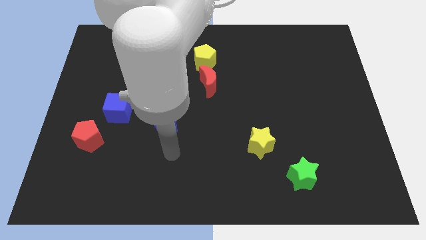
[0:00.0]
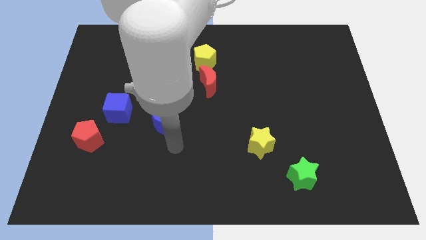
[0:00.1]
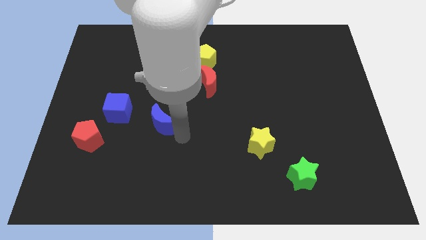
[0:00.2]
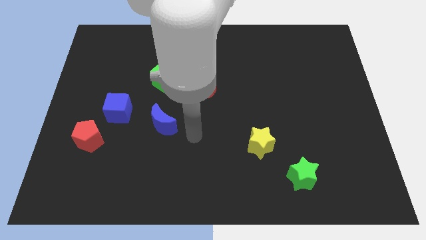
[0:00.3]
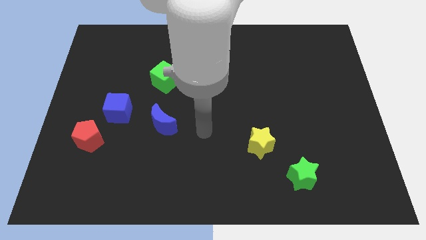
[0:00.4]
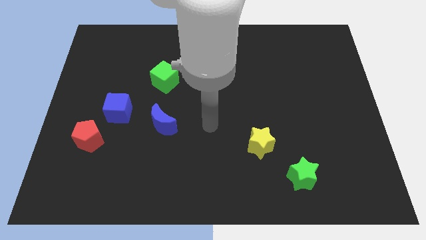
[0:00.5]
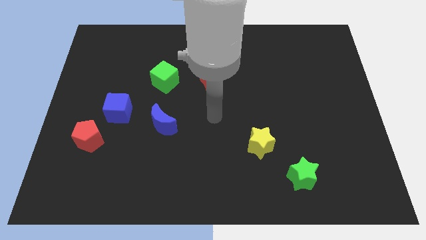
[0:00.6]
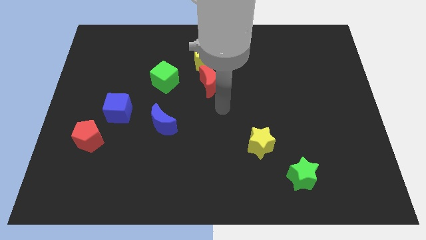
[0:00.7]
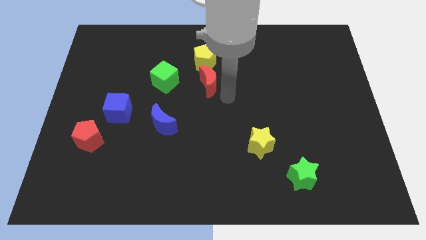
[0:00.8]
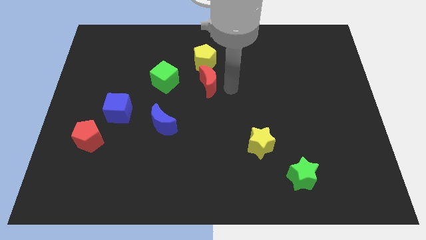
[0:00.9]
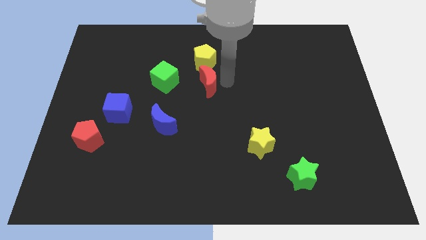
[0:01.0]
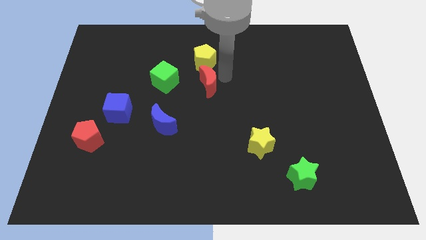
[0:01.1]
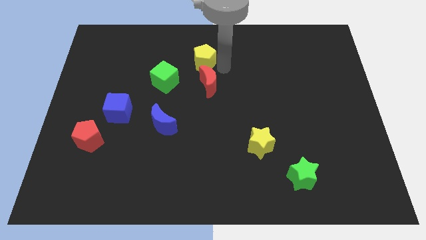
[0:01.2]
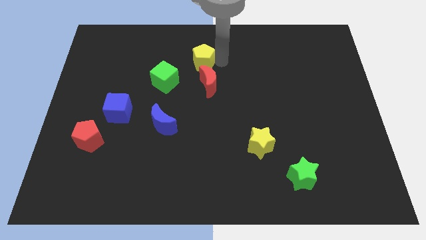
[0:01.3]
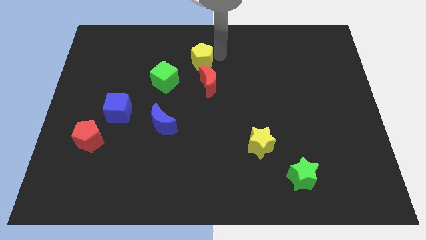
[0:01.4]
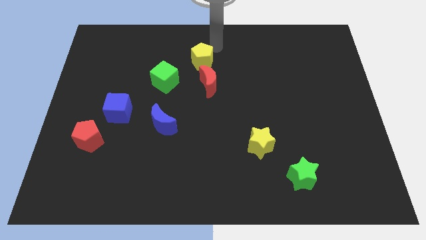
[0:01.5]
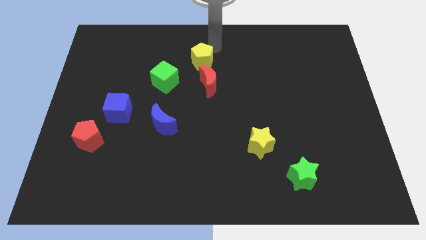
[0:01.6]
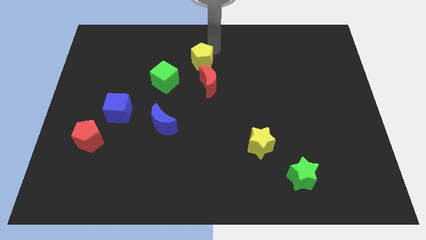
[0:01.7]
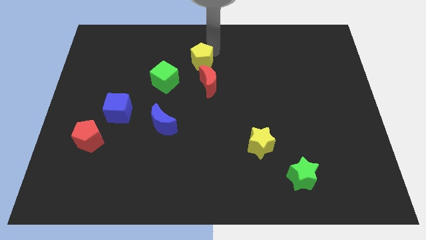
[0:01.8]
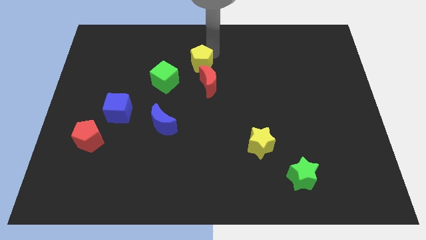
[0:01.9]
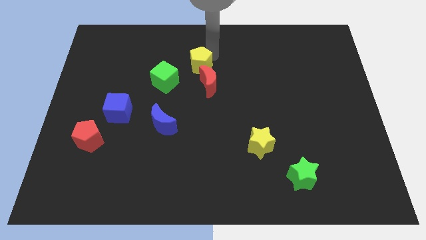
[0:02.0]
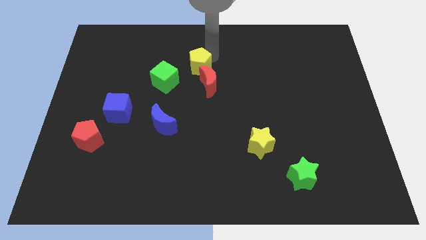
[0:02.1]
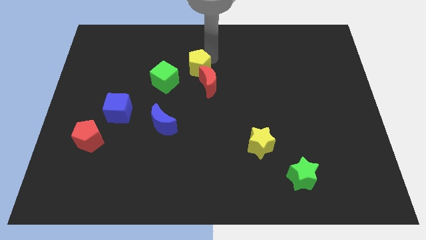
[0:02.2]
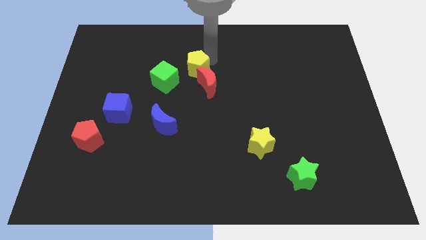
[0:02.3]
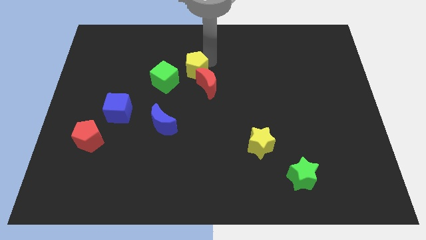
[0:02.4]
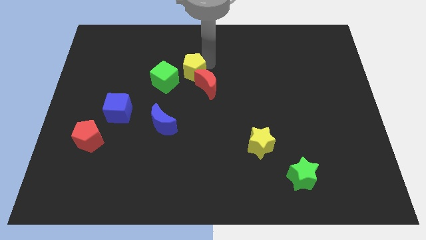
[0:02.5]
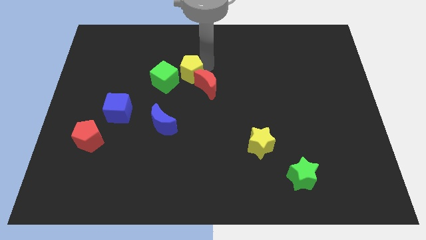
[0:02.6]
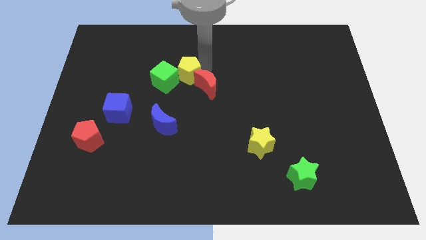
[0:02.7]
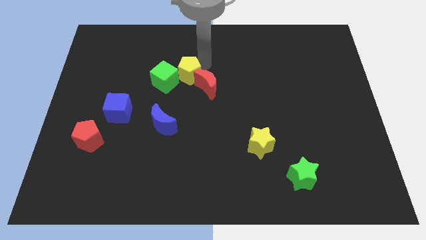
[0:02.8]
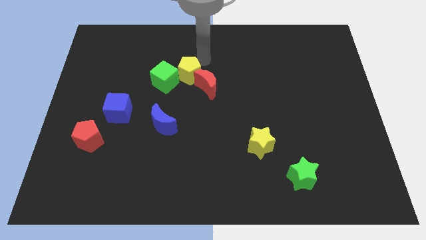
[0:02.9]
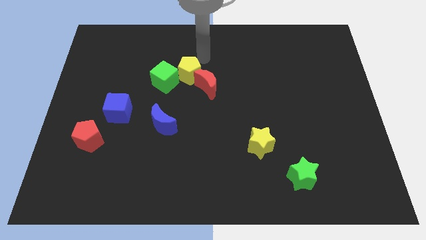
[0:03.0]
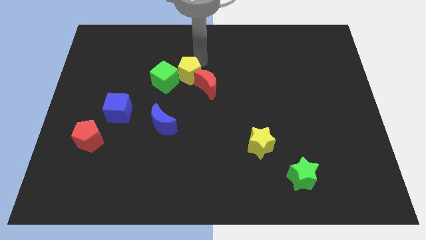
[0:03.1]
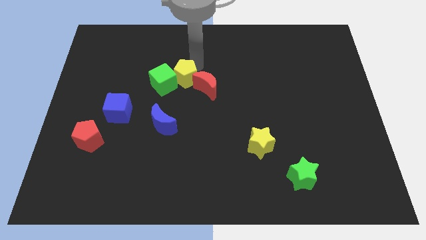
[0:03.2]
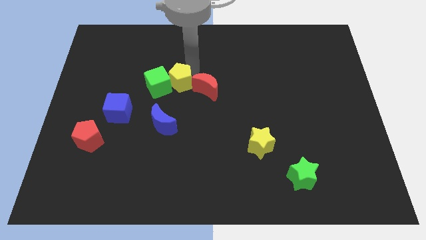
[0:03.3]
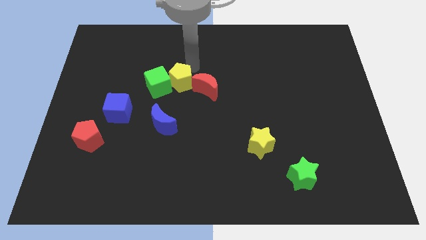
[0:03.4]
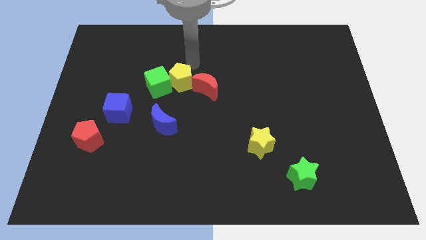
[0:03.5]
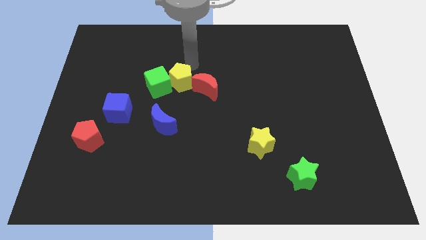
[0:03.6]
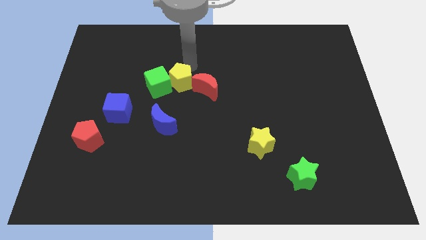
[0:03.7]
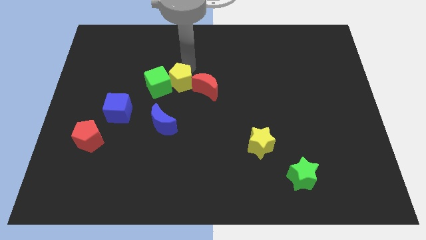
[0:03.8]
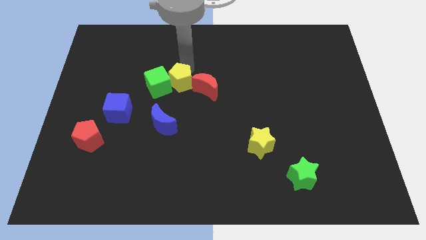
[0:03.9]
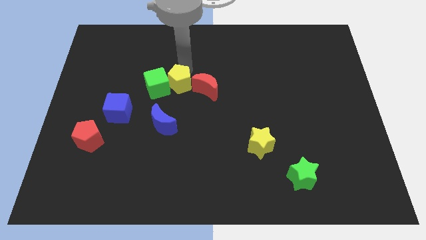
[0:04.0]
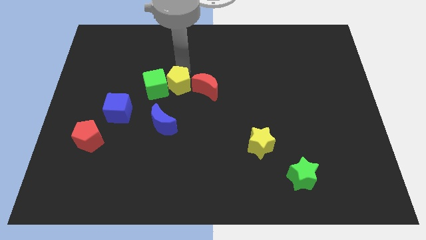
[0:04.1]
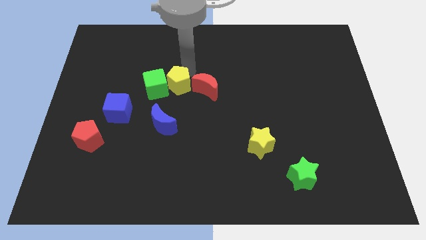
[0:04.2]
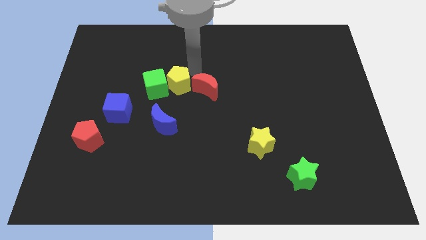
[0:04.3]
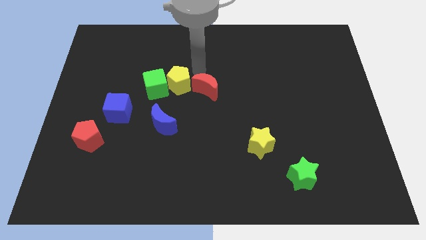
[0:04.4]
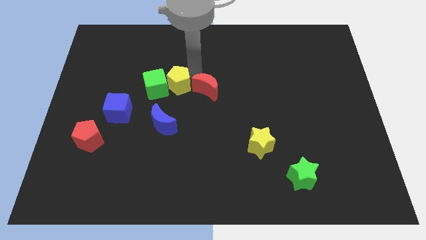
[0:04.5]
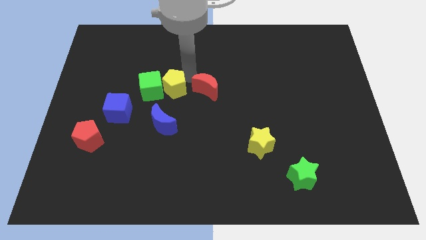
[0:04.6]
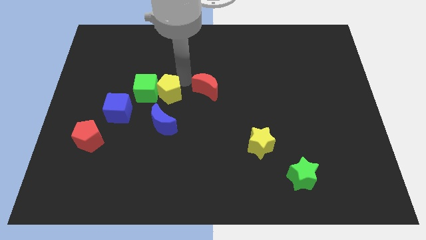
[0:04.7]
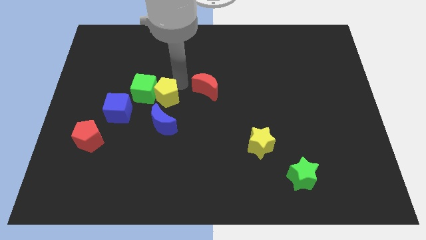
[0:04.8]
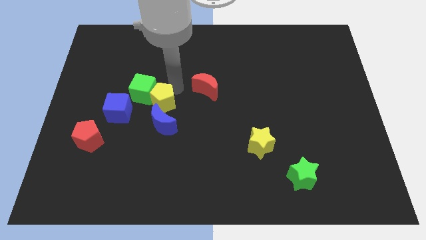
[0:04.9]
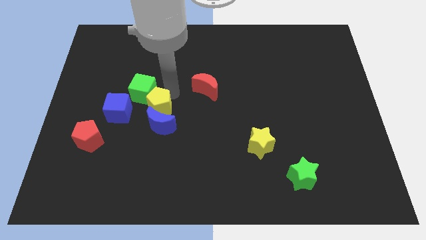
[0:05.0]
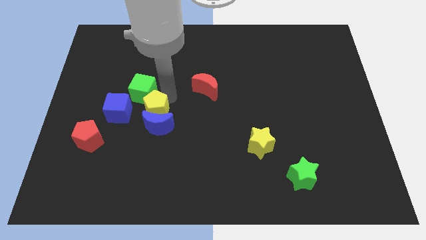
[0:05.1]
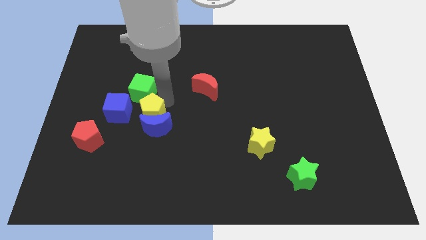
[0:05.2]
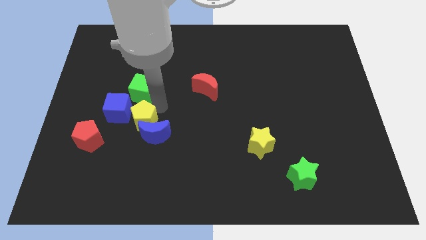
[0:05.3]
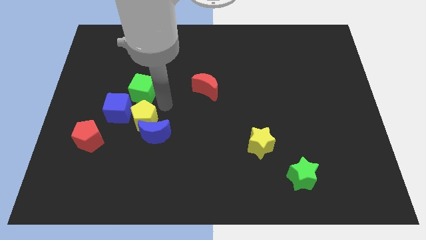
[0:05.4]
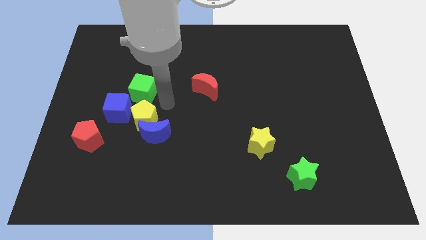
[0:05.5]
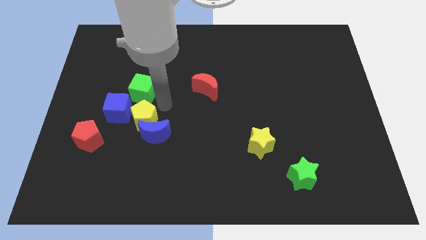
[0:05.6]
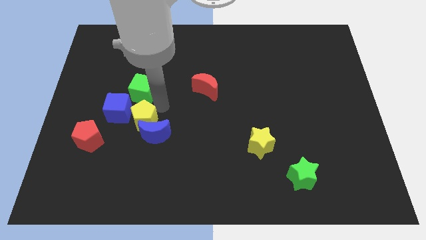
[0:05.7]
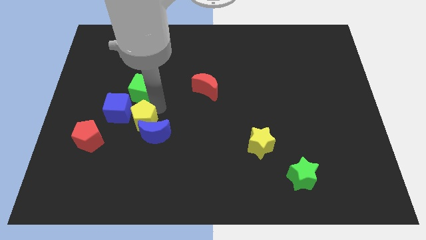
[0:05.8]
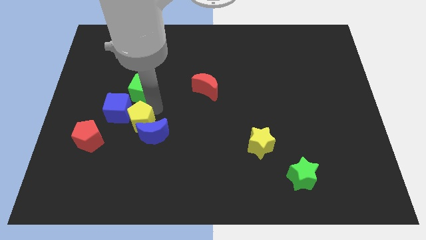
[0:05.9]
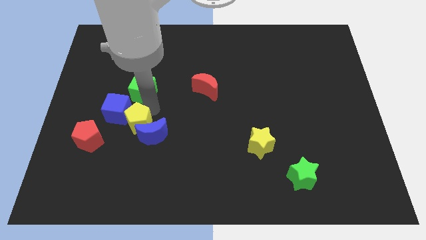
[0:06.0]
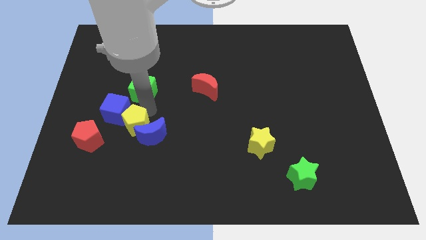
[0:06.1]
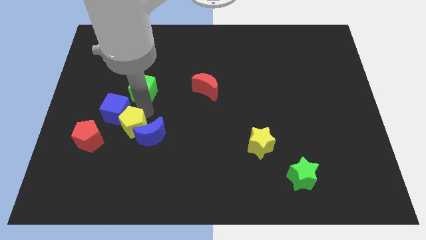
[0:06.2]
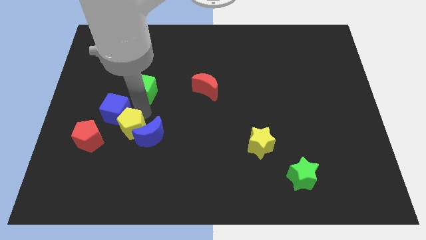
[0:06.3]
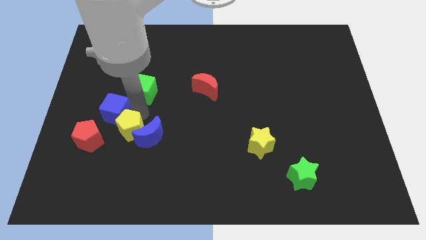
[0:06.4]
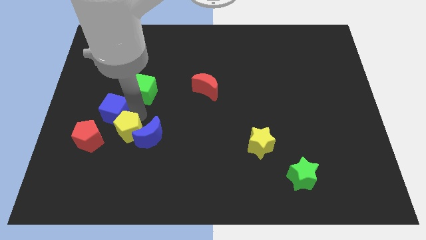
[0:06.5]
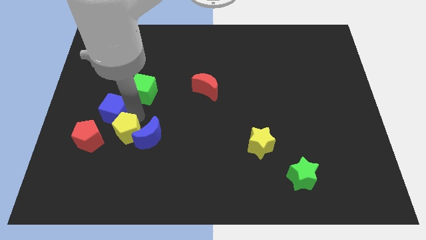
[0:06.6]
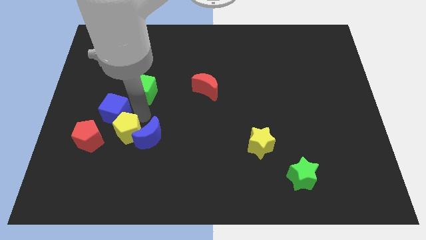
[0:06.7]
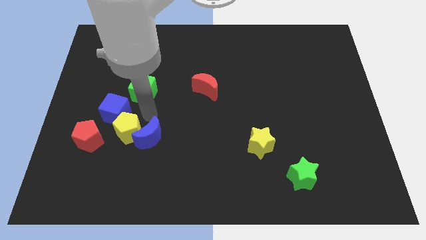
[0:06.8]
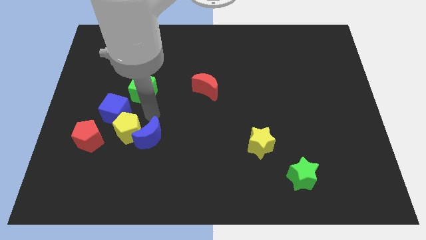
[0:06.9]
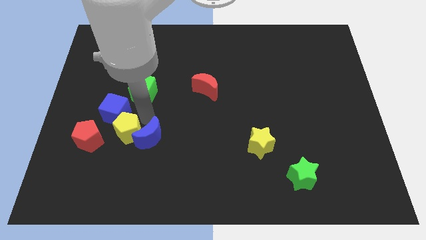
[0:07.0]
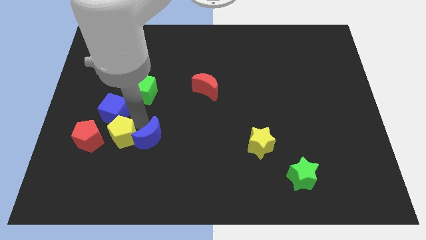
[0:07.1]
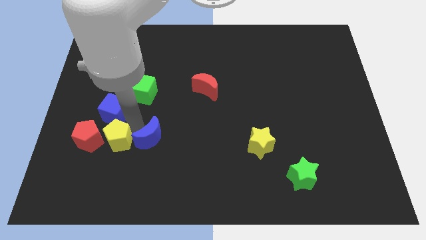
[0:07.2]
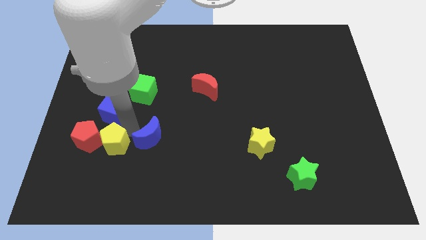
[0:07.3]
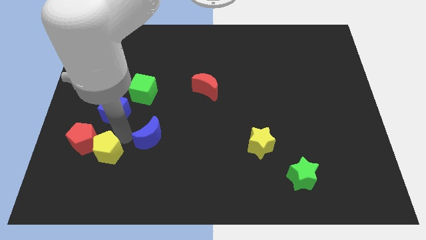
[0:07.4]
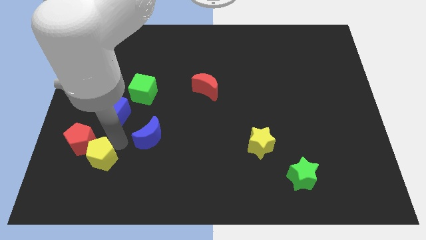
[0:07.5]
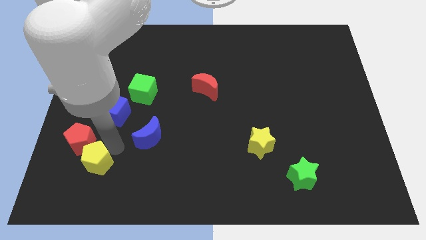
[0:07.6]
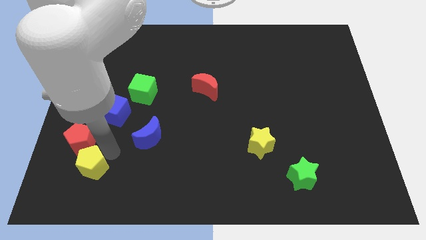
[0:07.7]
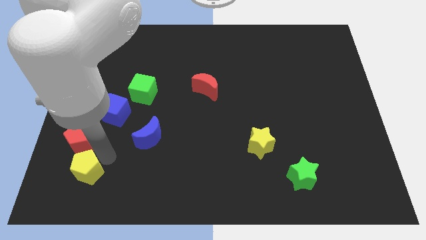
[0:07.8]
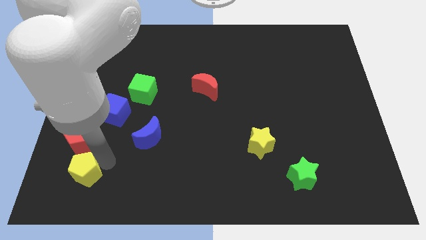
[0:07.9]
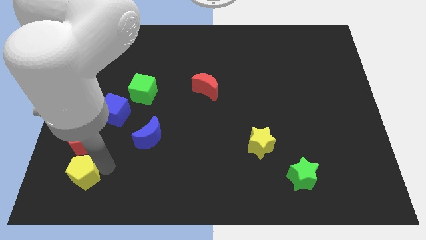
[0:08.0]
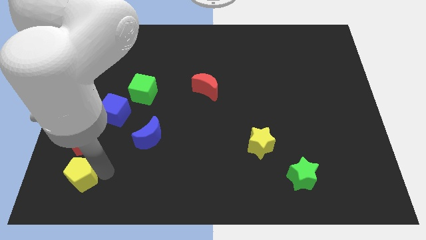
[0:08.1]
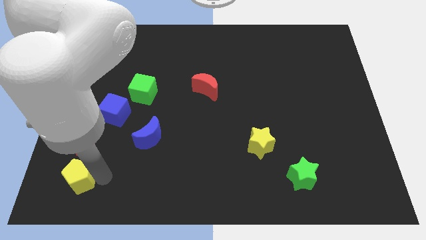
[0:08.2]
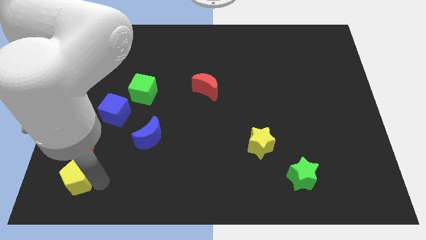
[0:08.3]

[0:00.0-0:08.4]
push the yellow pentagon to the bottom left
